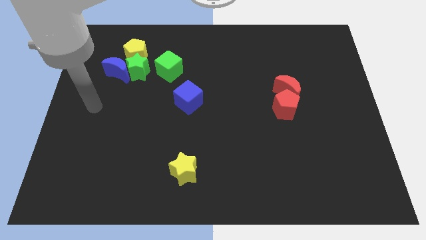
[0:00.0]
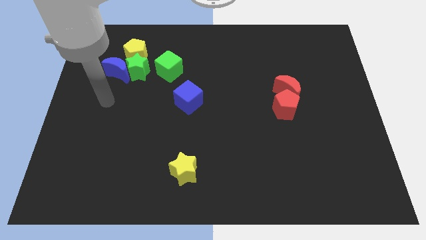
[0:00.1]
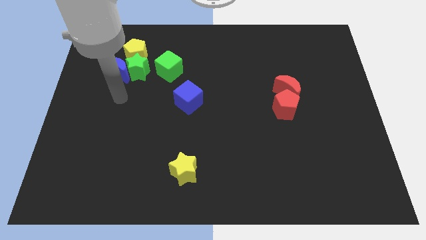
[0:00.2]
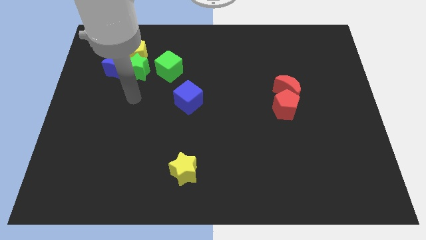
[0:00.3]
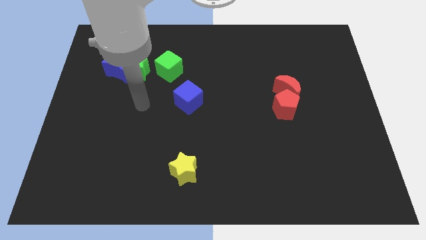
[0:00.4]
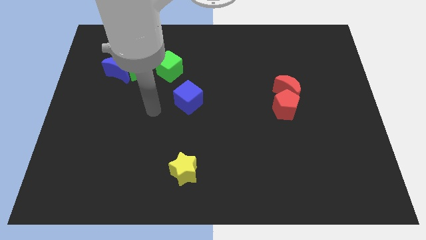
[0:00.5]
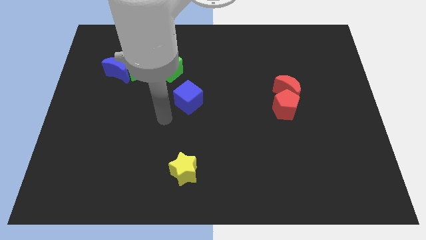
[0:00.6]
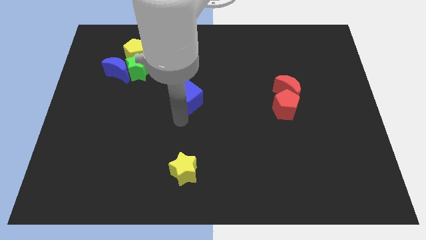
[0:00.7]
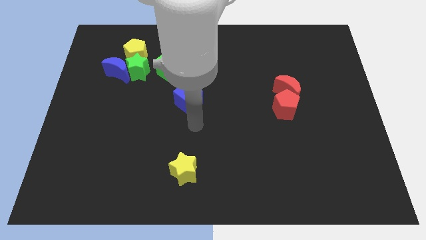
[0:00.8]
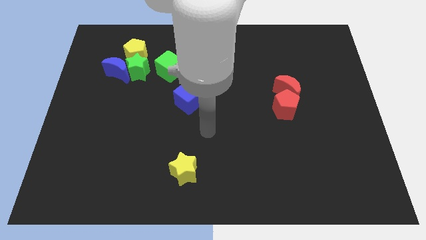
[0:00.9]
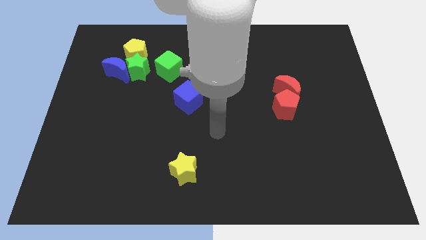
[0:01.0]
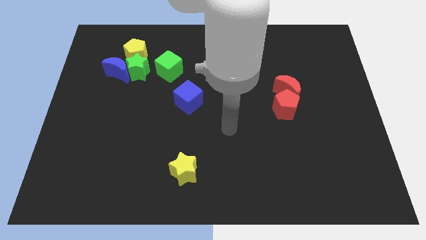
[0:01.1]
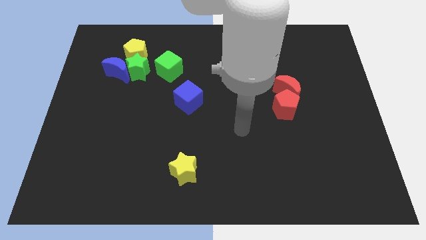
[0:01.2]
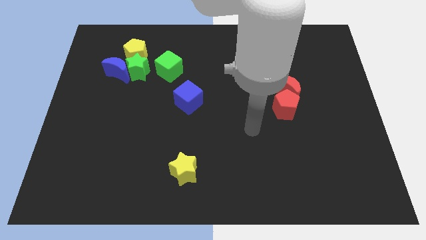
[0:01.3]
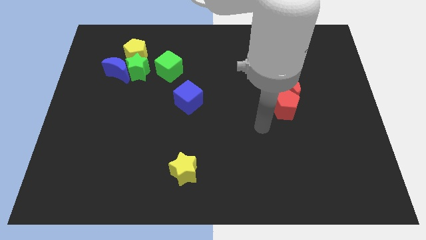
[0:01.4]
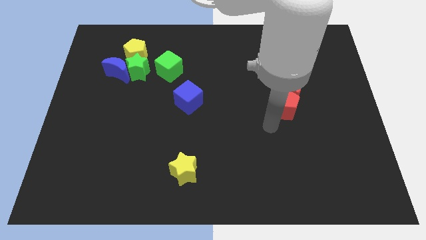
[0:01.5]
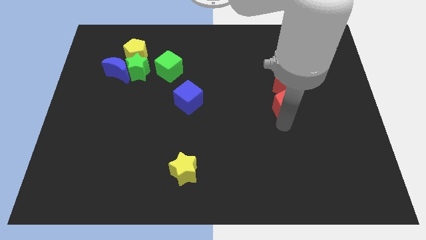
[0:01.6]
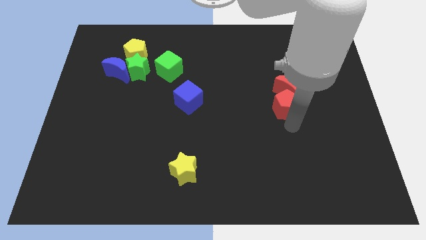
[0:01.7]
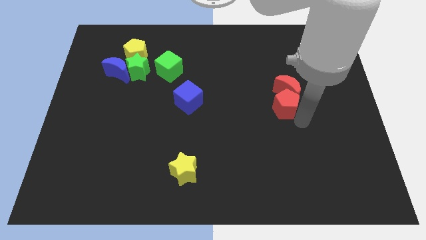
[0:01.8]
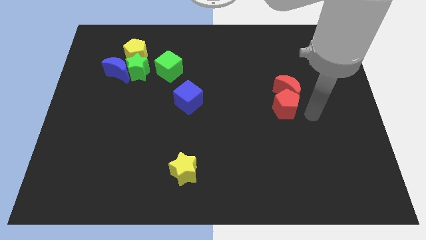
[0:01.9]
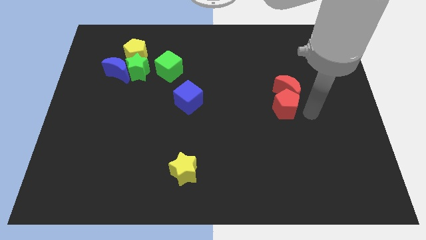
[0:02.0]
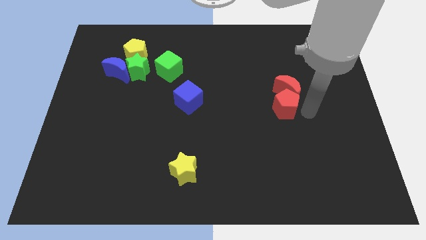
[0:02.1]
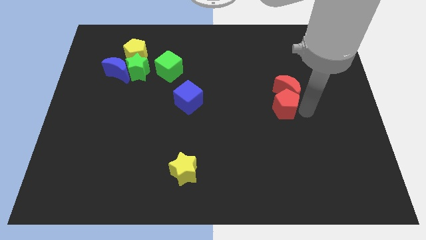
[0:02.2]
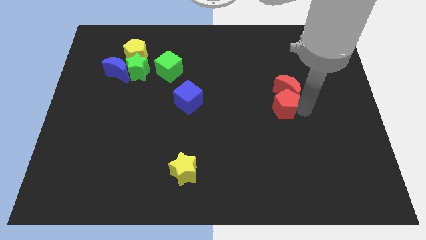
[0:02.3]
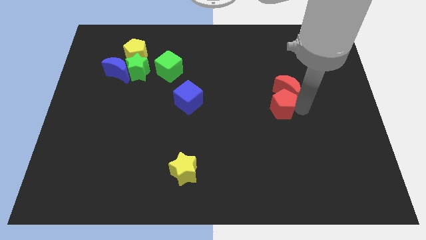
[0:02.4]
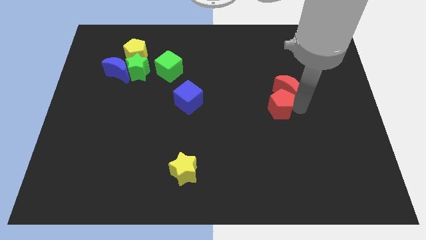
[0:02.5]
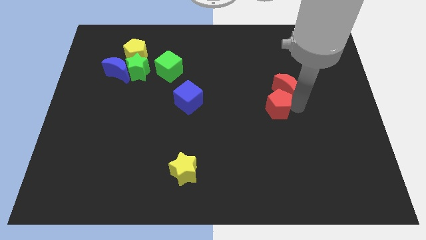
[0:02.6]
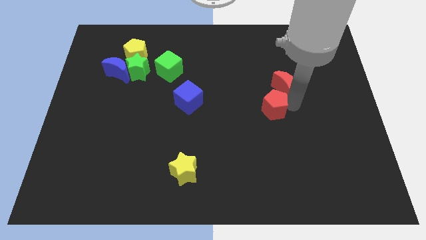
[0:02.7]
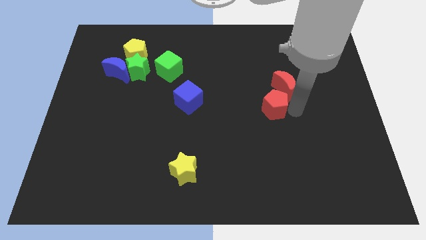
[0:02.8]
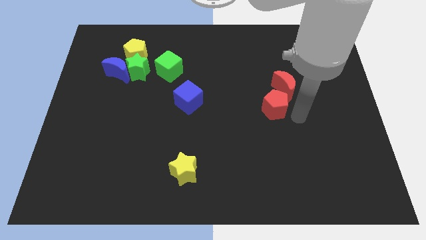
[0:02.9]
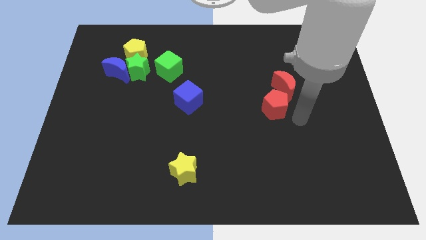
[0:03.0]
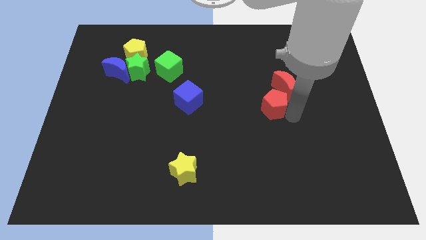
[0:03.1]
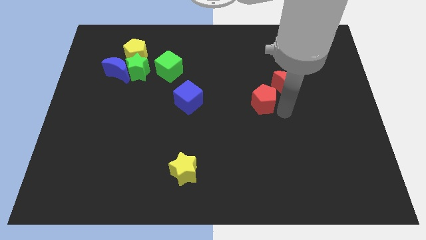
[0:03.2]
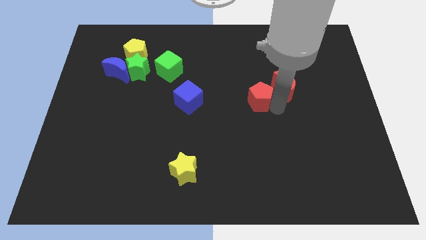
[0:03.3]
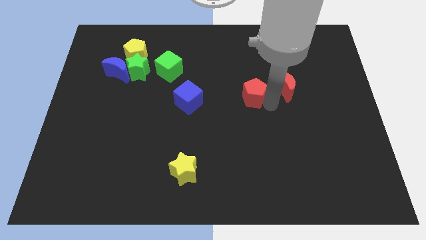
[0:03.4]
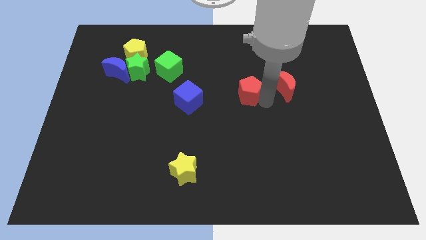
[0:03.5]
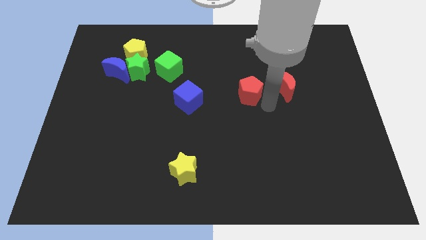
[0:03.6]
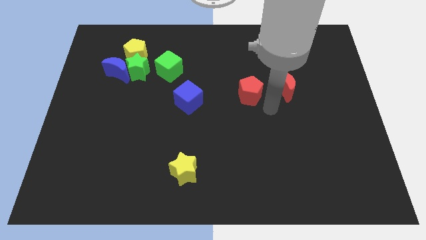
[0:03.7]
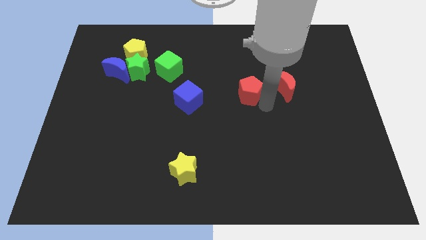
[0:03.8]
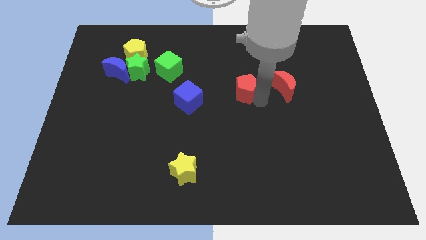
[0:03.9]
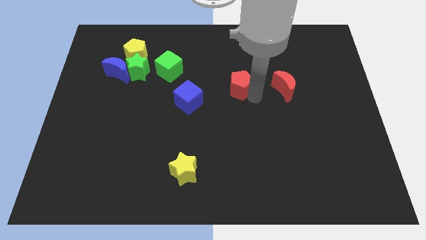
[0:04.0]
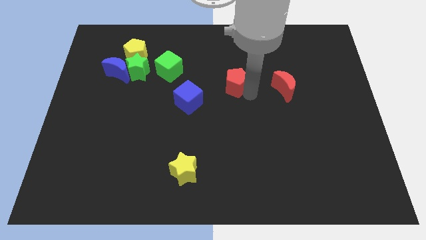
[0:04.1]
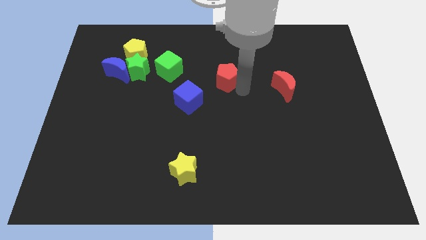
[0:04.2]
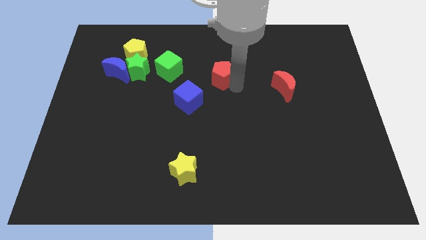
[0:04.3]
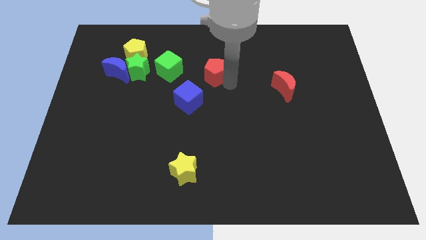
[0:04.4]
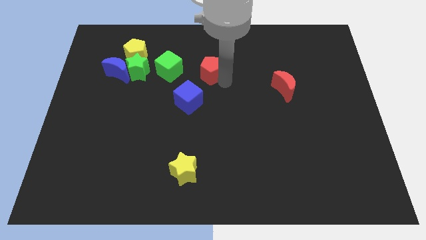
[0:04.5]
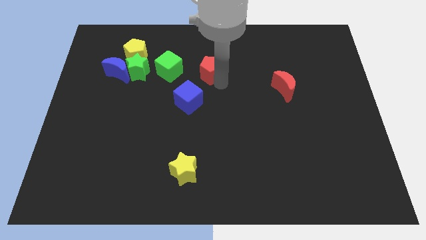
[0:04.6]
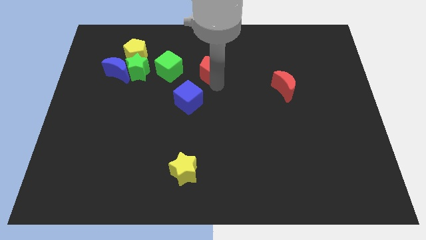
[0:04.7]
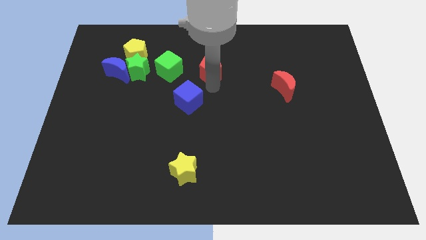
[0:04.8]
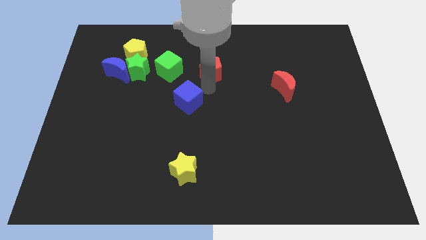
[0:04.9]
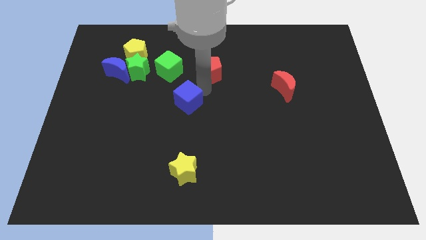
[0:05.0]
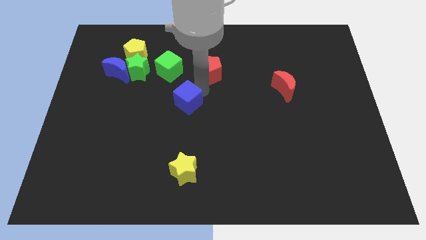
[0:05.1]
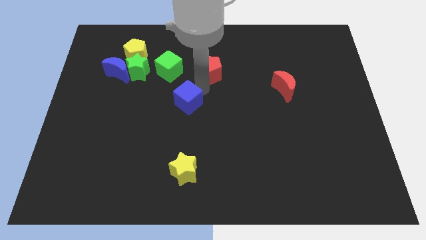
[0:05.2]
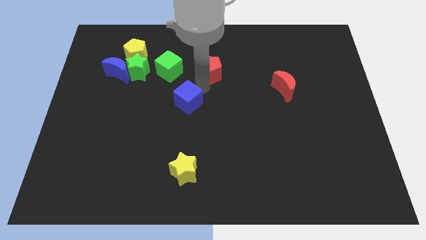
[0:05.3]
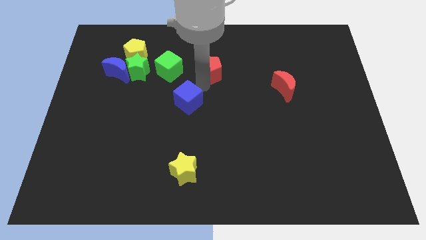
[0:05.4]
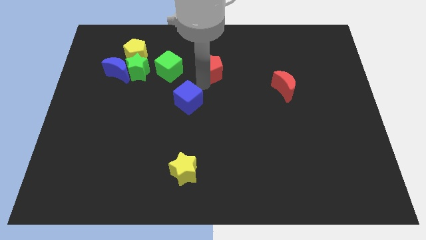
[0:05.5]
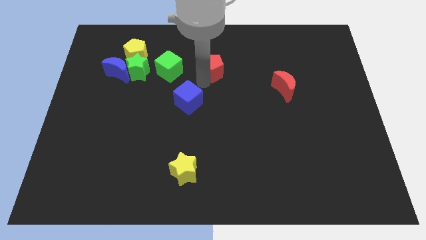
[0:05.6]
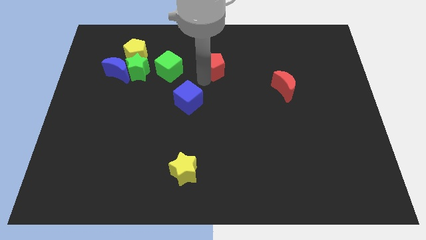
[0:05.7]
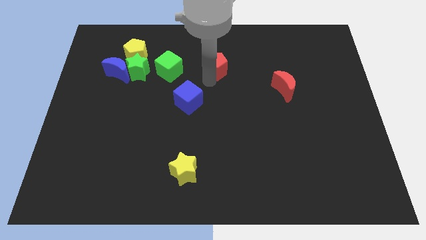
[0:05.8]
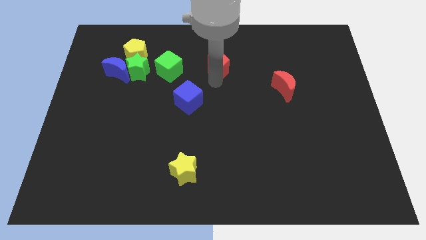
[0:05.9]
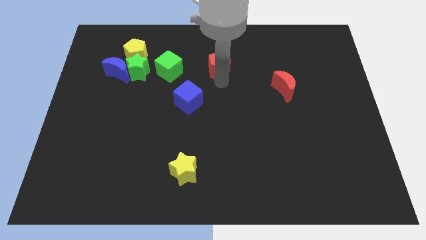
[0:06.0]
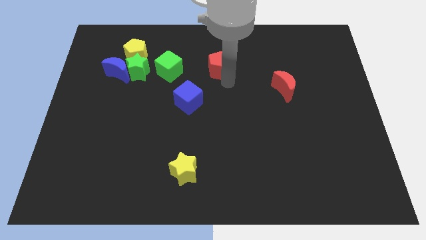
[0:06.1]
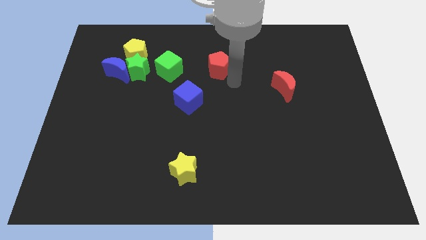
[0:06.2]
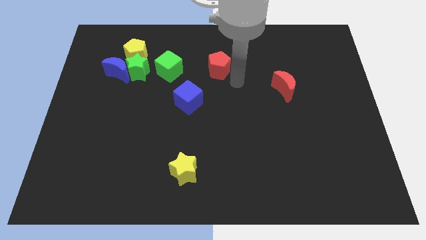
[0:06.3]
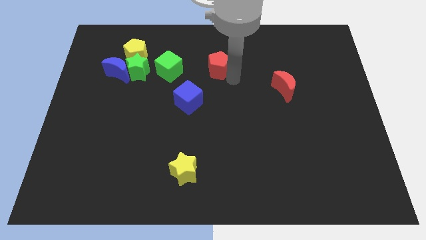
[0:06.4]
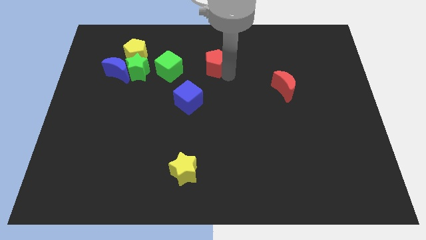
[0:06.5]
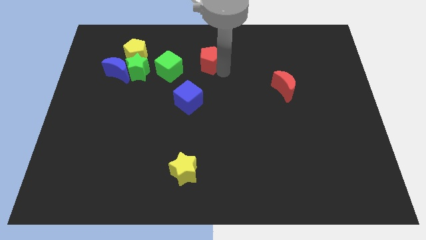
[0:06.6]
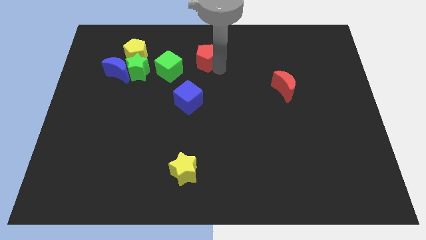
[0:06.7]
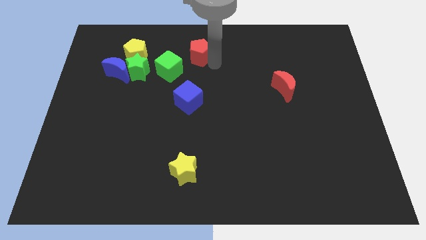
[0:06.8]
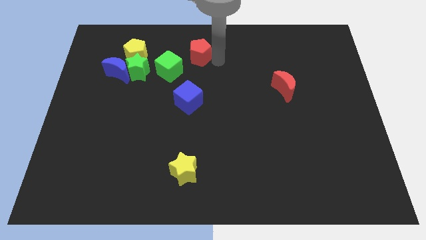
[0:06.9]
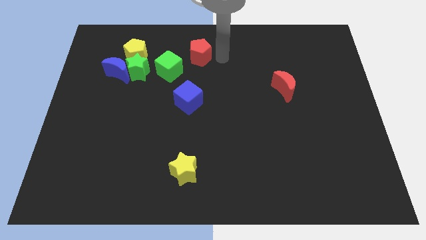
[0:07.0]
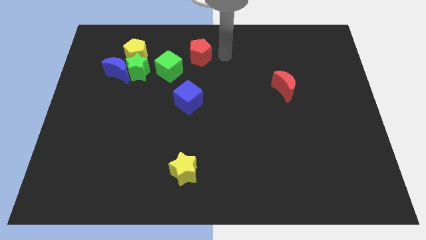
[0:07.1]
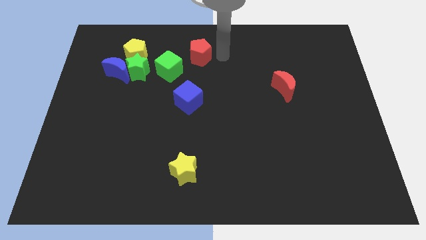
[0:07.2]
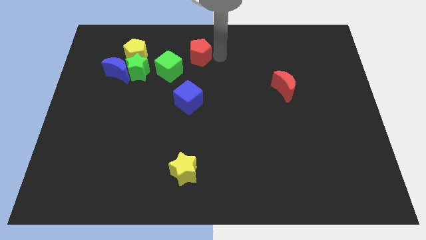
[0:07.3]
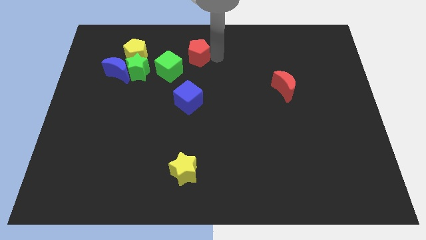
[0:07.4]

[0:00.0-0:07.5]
slide the red pentagon to the right of the yellow pentagon
